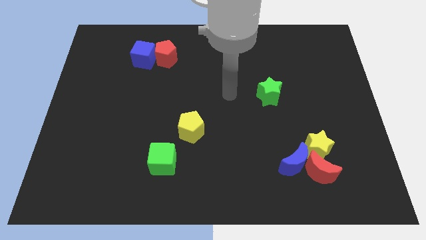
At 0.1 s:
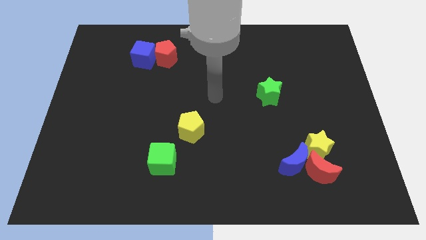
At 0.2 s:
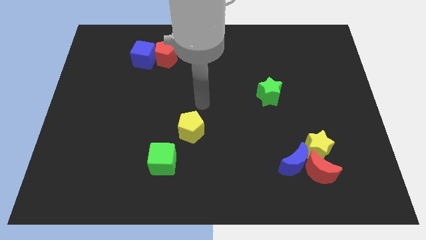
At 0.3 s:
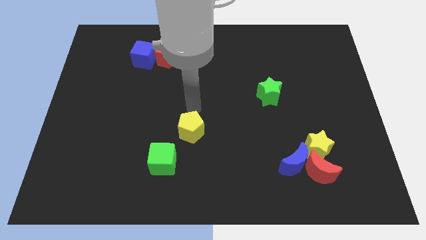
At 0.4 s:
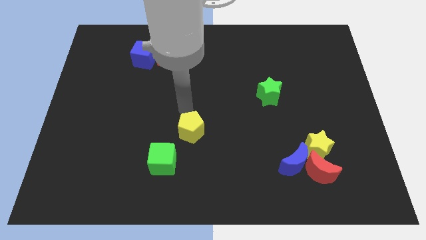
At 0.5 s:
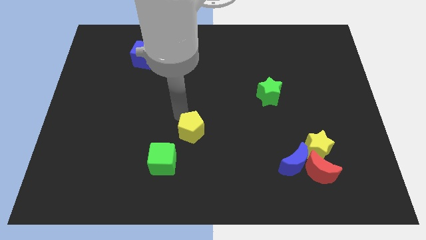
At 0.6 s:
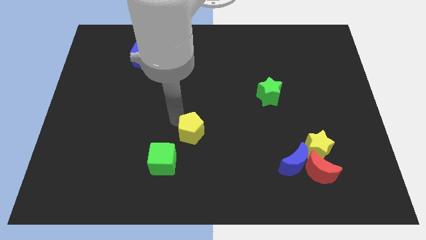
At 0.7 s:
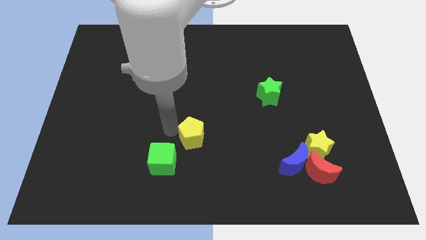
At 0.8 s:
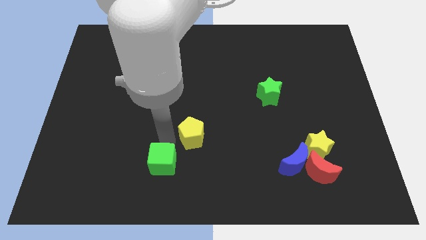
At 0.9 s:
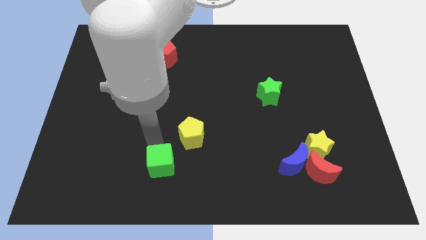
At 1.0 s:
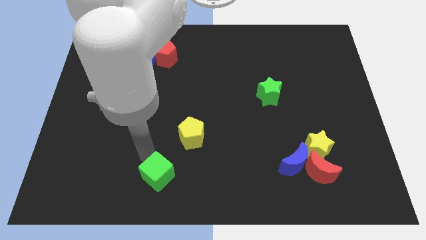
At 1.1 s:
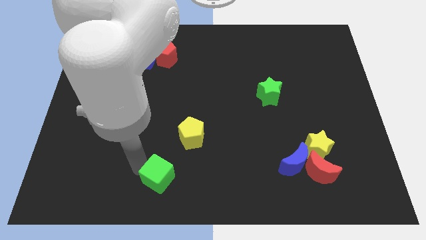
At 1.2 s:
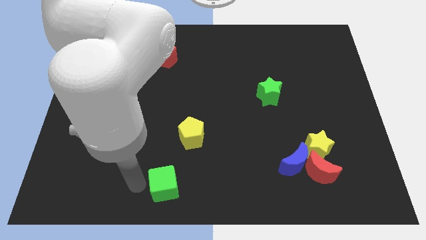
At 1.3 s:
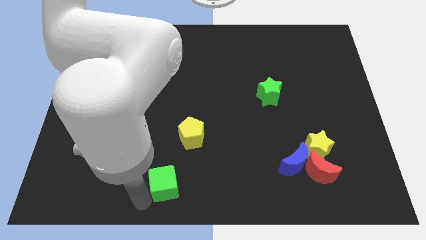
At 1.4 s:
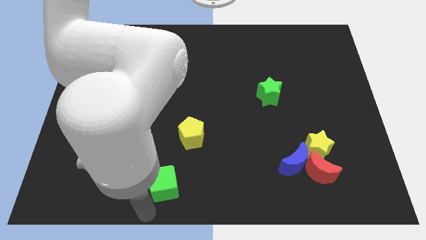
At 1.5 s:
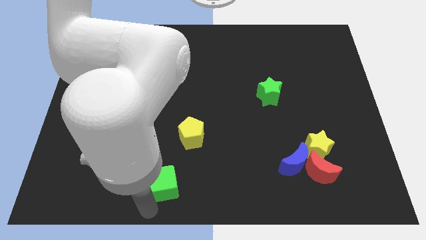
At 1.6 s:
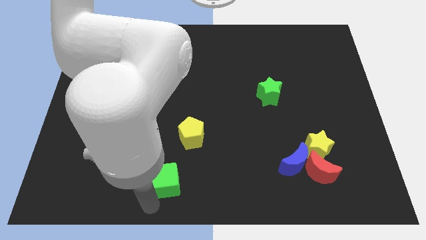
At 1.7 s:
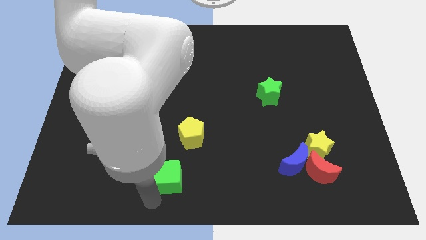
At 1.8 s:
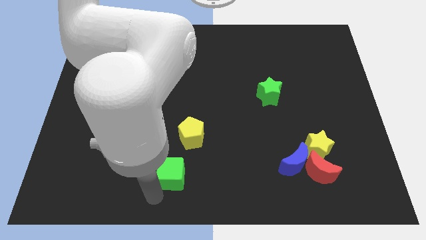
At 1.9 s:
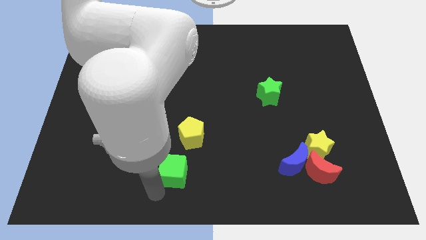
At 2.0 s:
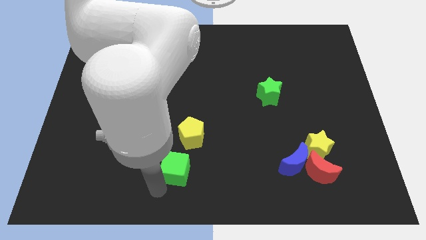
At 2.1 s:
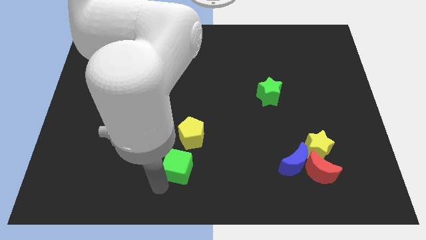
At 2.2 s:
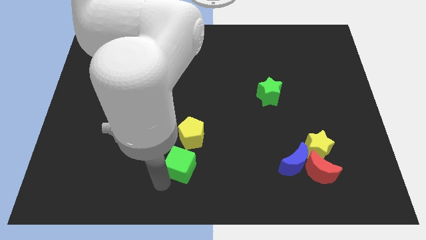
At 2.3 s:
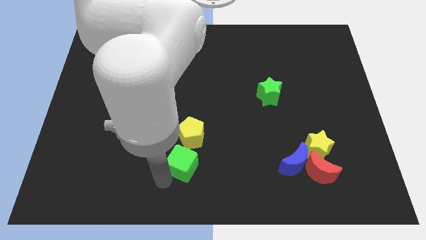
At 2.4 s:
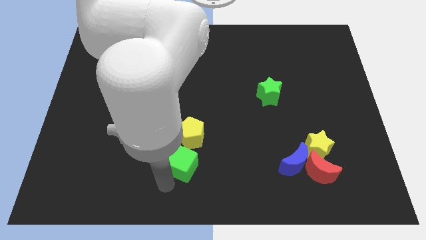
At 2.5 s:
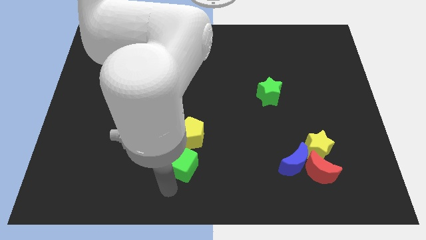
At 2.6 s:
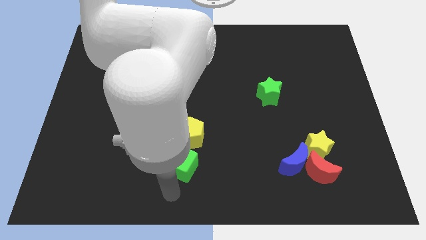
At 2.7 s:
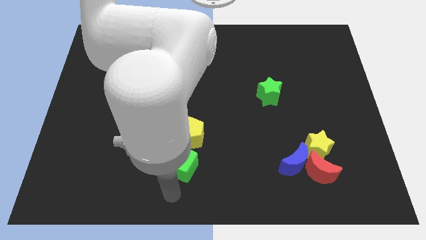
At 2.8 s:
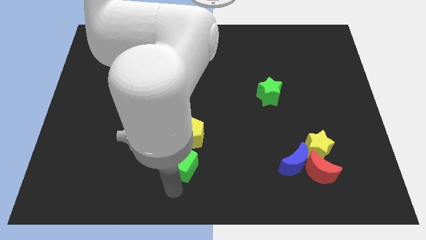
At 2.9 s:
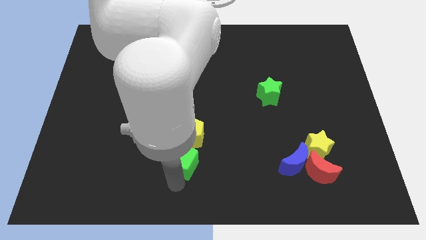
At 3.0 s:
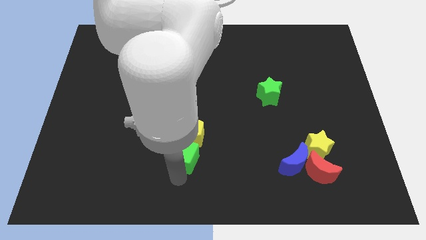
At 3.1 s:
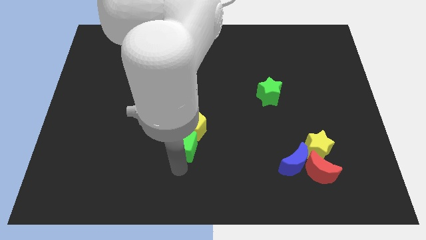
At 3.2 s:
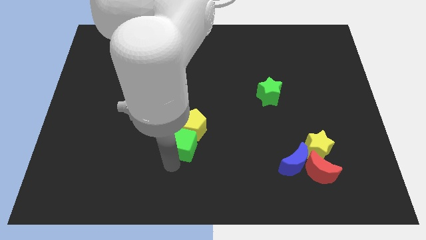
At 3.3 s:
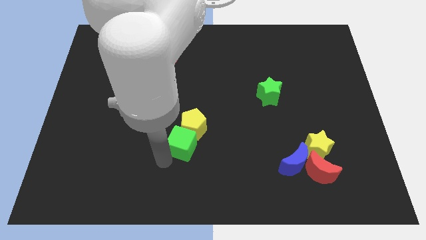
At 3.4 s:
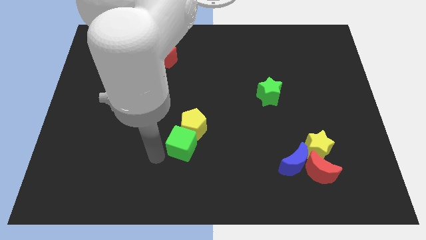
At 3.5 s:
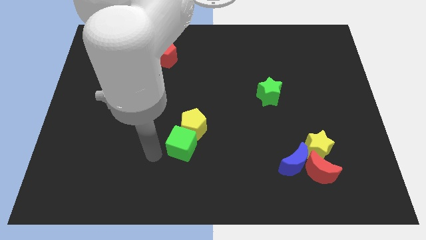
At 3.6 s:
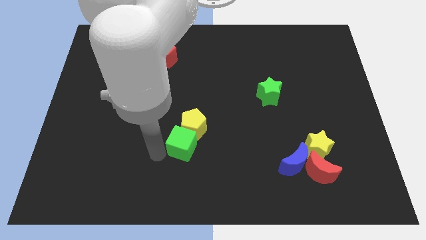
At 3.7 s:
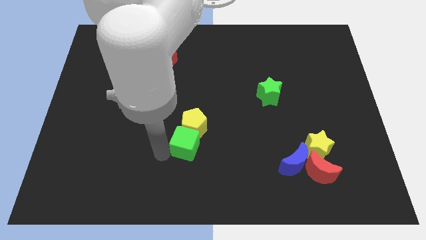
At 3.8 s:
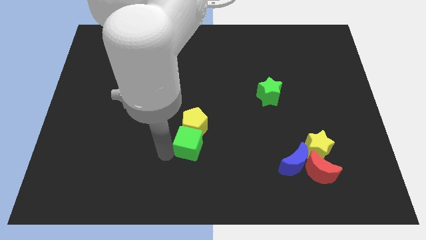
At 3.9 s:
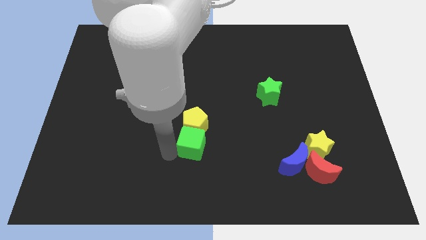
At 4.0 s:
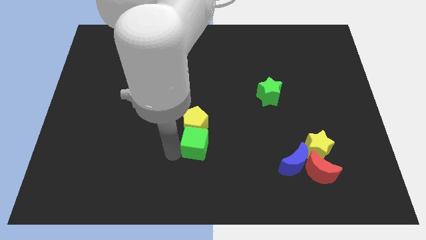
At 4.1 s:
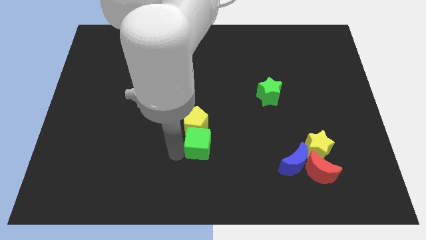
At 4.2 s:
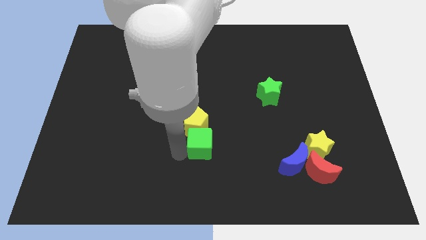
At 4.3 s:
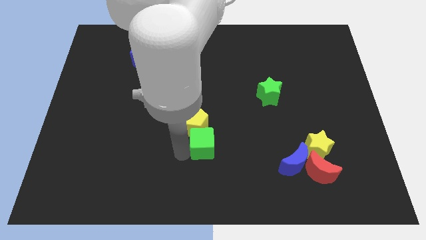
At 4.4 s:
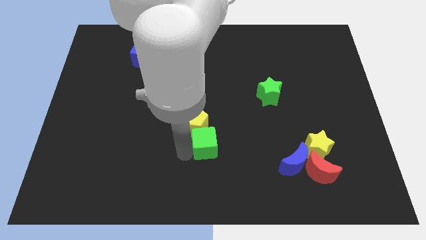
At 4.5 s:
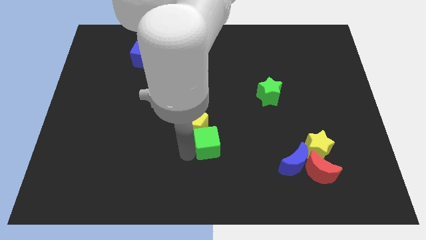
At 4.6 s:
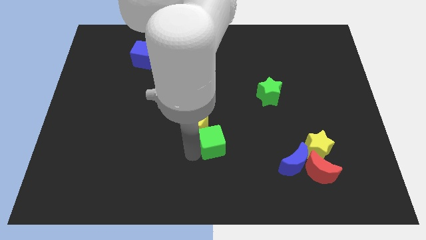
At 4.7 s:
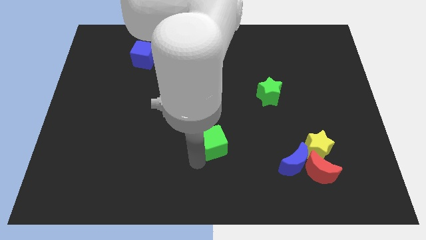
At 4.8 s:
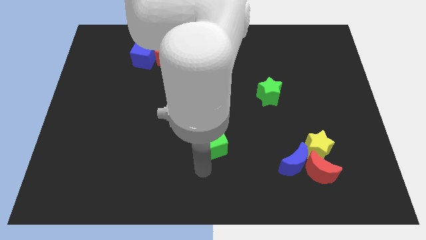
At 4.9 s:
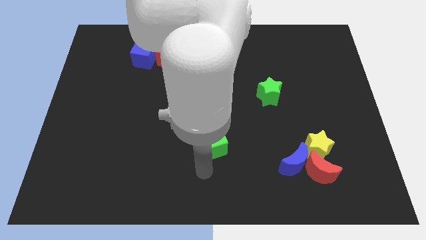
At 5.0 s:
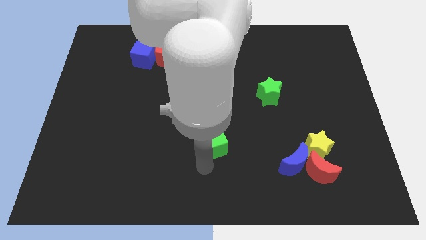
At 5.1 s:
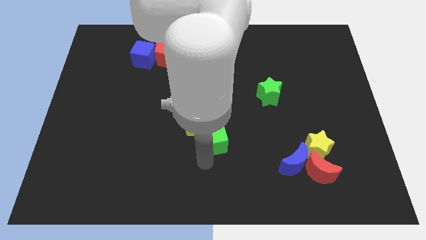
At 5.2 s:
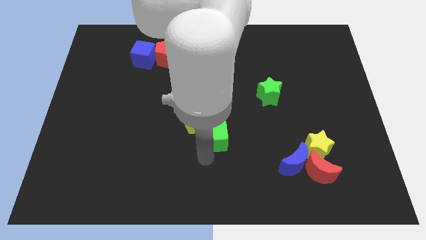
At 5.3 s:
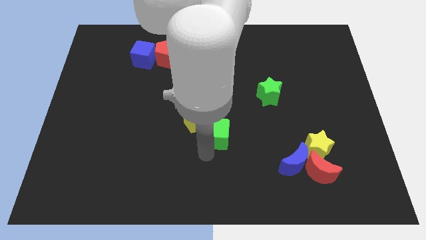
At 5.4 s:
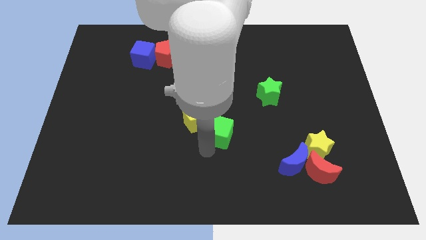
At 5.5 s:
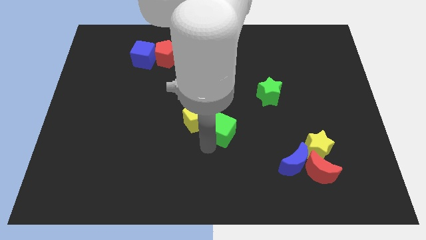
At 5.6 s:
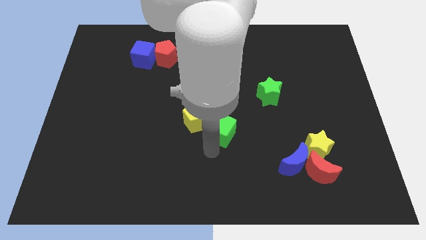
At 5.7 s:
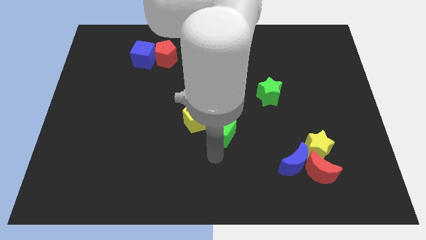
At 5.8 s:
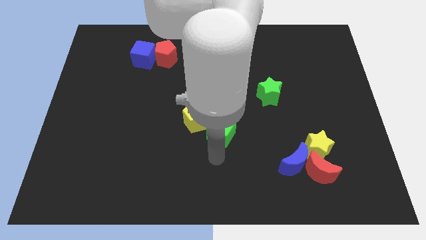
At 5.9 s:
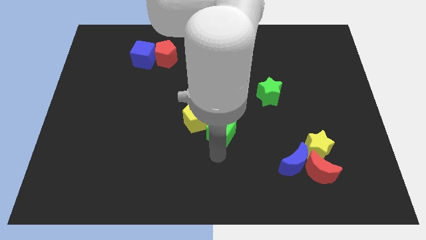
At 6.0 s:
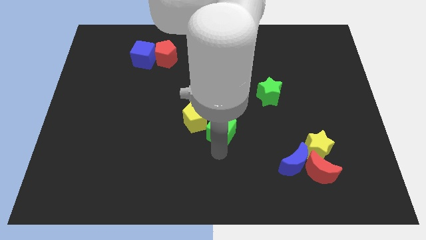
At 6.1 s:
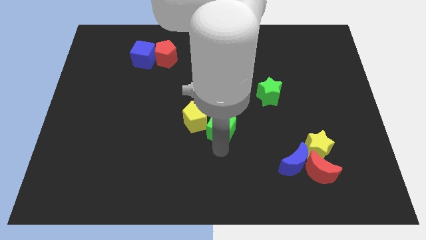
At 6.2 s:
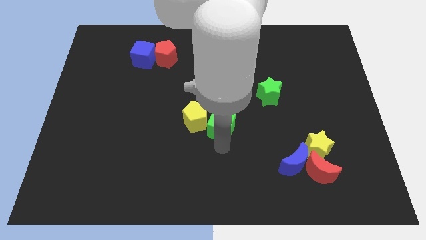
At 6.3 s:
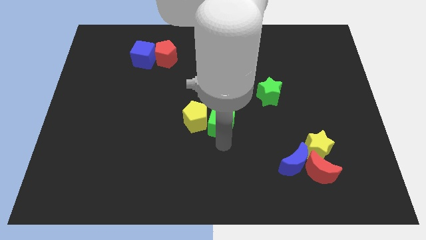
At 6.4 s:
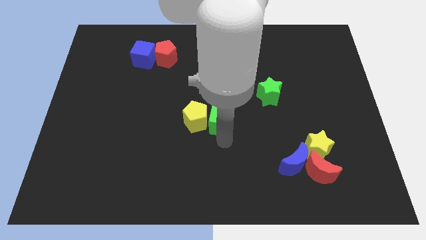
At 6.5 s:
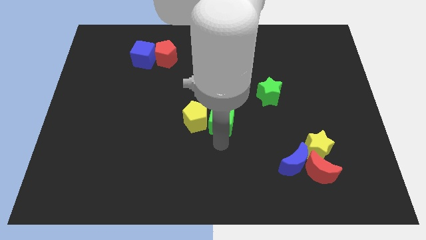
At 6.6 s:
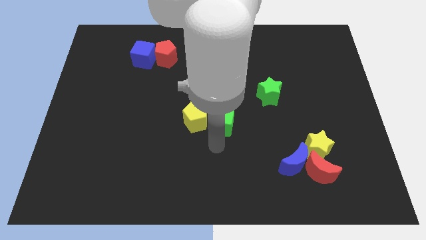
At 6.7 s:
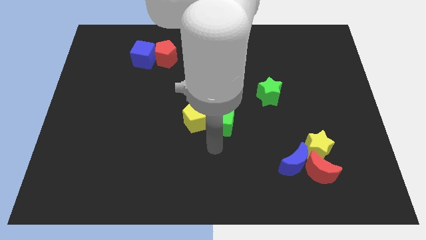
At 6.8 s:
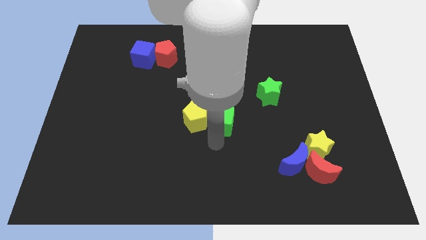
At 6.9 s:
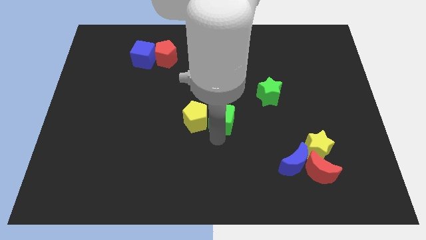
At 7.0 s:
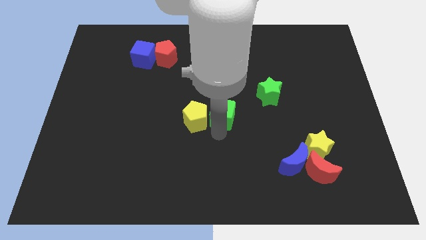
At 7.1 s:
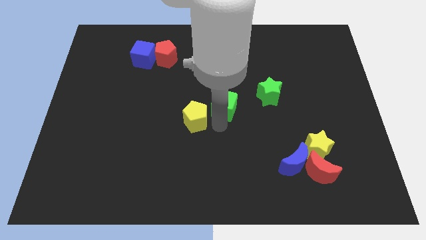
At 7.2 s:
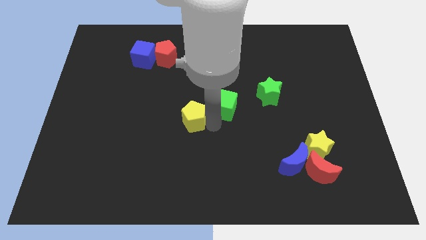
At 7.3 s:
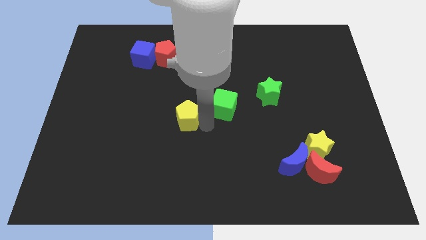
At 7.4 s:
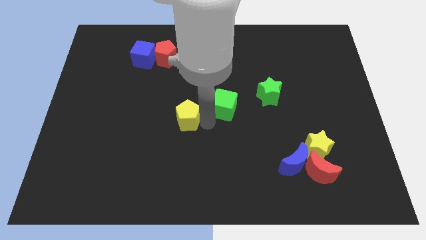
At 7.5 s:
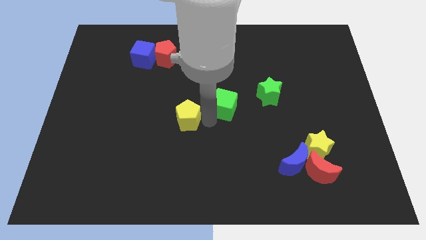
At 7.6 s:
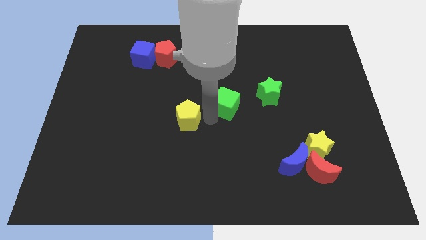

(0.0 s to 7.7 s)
slide the green cube upwards and to the right diagonally
